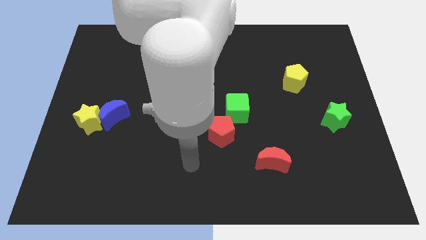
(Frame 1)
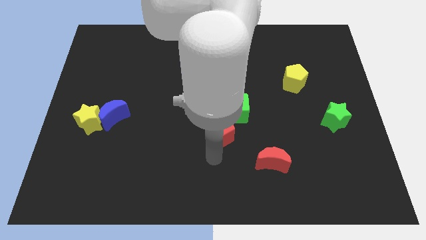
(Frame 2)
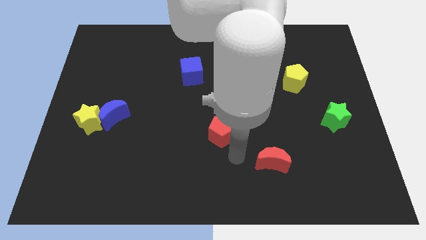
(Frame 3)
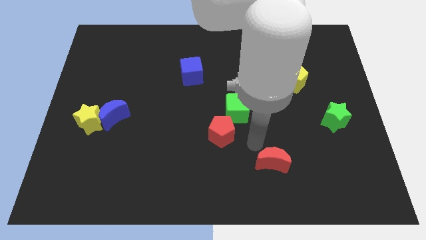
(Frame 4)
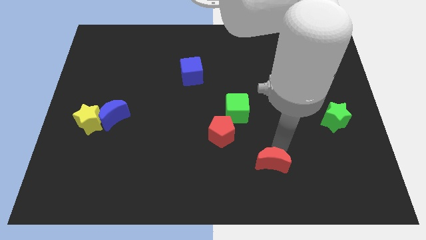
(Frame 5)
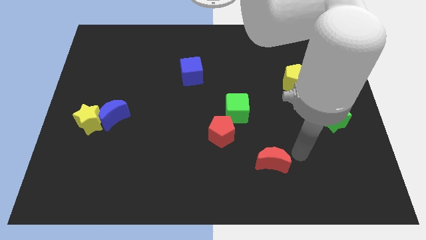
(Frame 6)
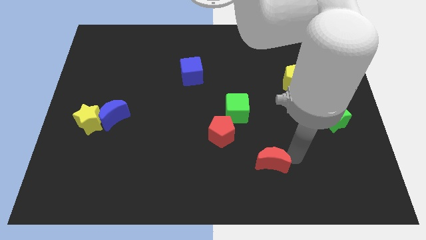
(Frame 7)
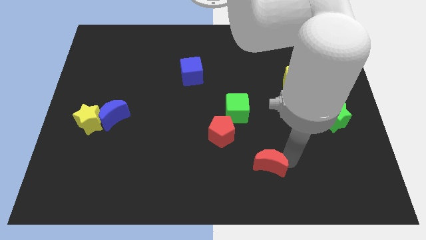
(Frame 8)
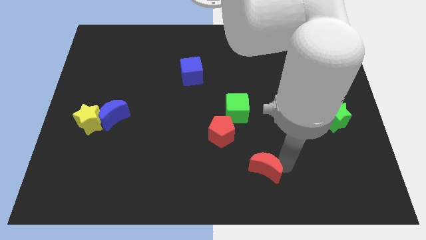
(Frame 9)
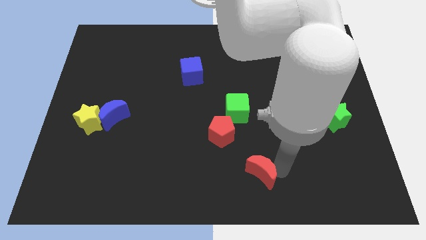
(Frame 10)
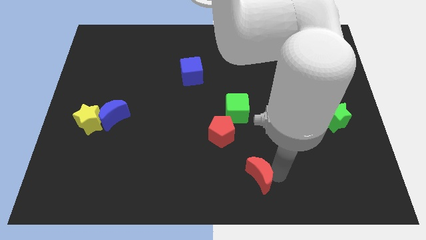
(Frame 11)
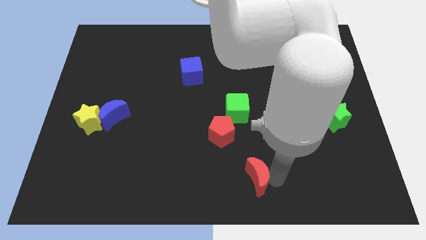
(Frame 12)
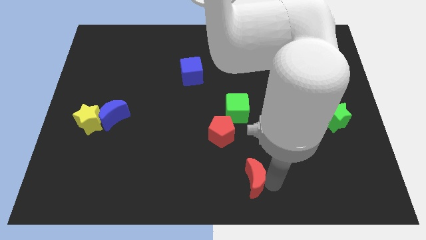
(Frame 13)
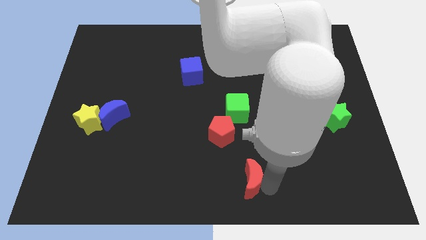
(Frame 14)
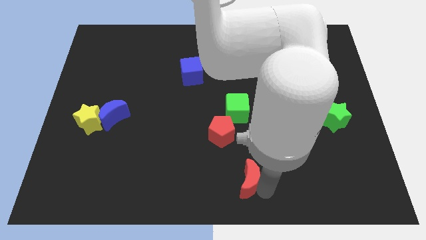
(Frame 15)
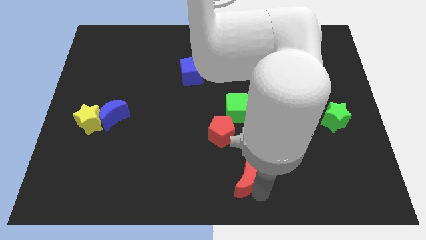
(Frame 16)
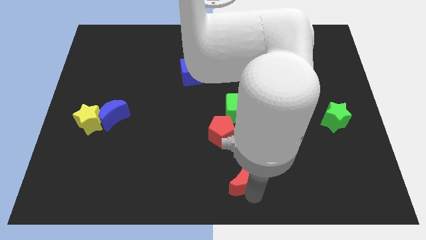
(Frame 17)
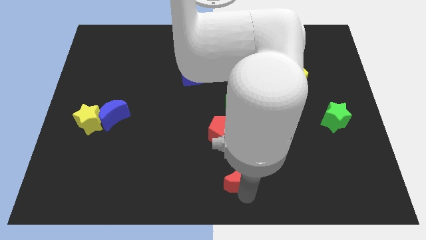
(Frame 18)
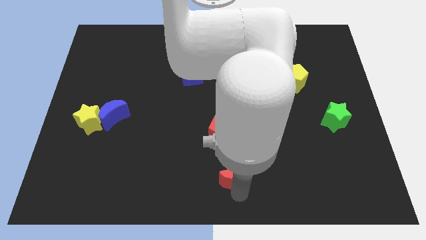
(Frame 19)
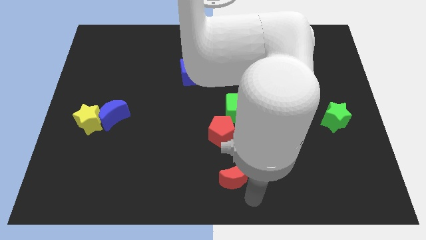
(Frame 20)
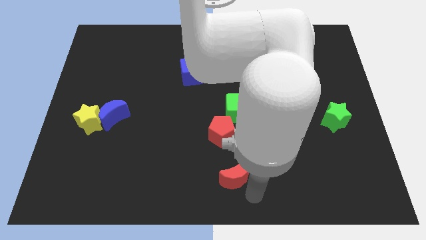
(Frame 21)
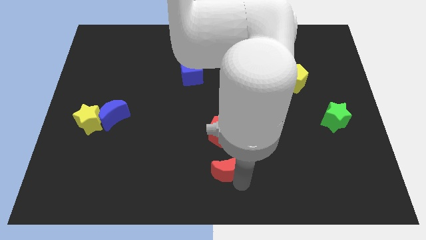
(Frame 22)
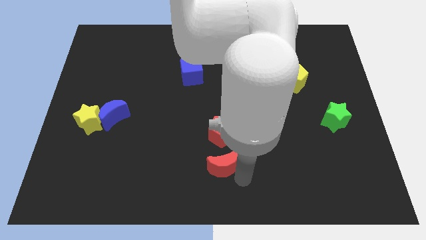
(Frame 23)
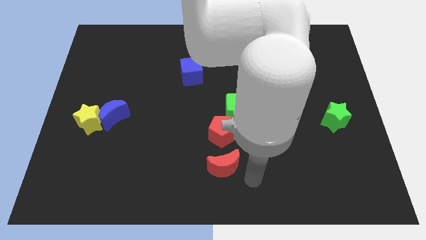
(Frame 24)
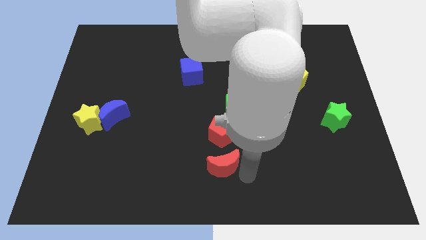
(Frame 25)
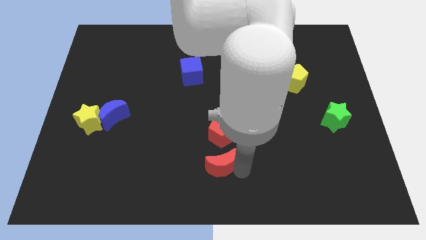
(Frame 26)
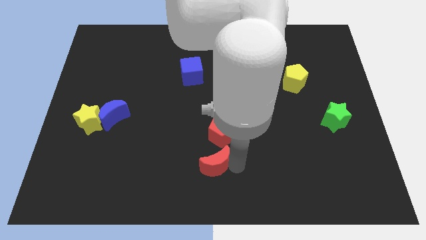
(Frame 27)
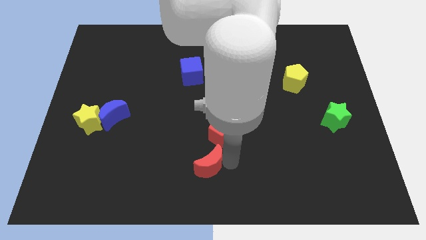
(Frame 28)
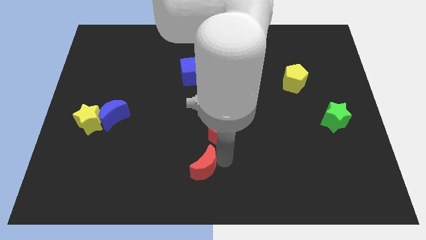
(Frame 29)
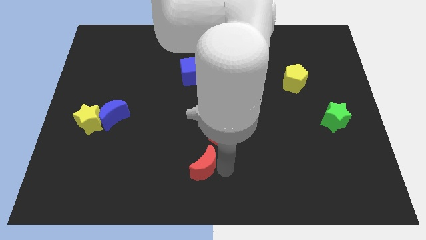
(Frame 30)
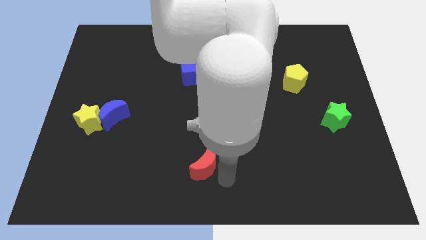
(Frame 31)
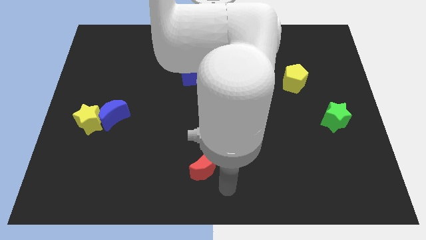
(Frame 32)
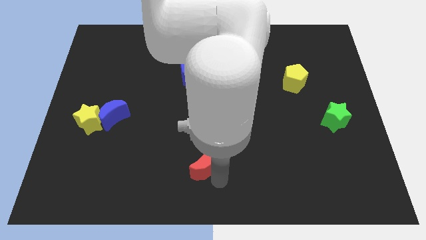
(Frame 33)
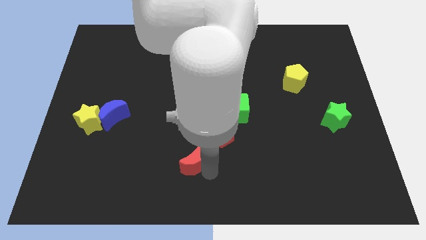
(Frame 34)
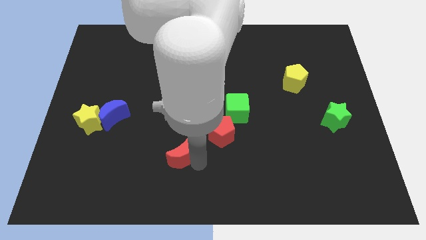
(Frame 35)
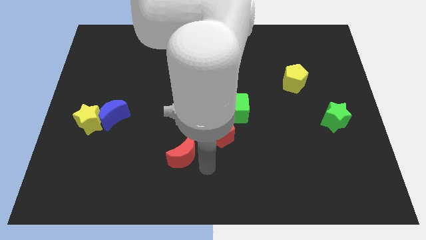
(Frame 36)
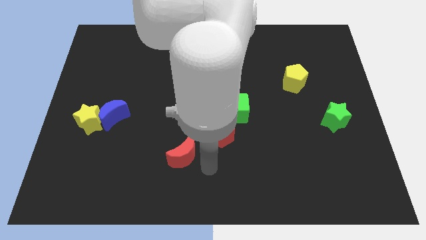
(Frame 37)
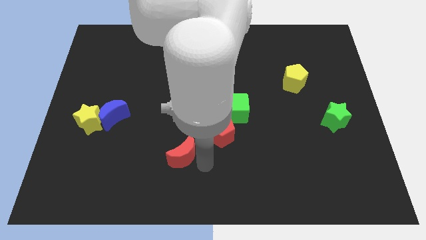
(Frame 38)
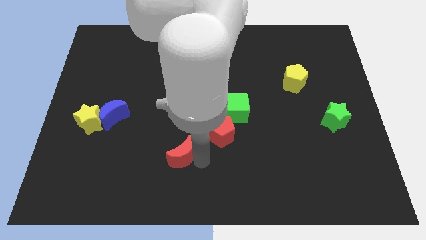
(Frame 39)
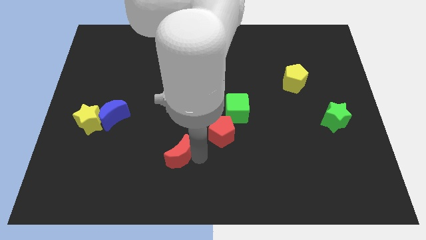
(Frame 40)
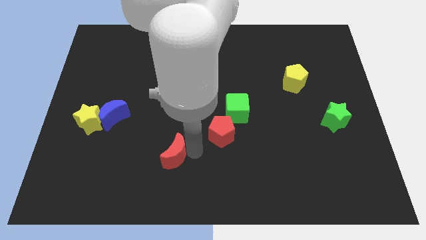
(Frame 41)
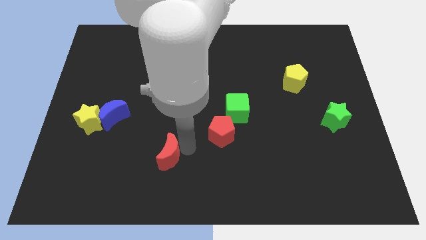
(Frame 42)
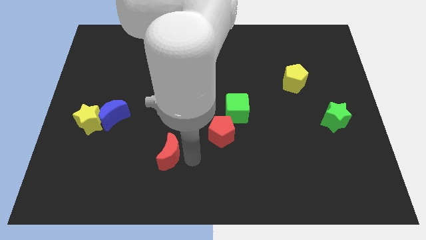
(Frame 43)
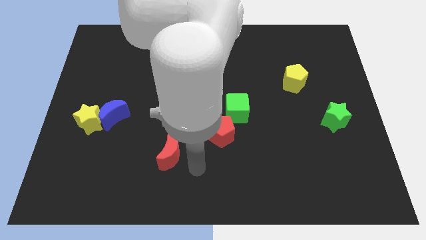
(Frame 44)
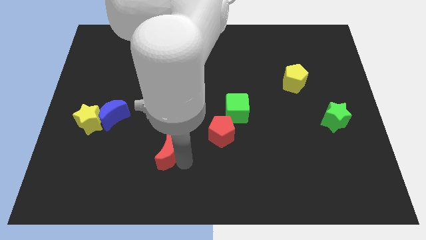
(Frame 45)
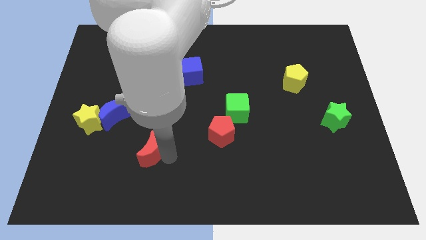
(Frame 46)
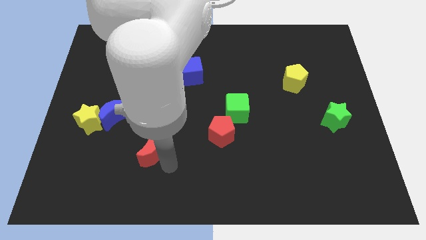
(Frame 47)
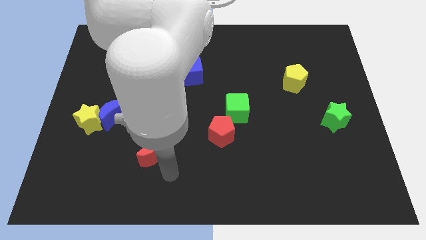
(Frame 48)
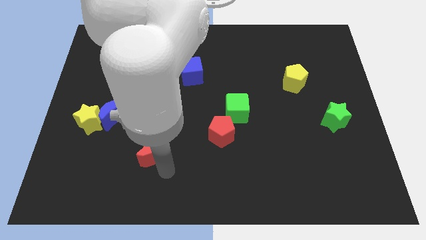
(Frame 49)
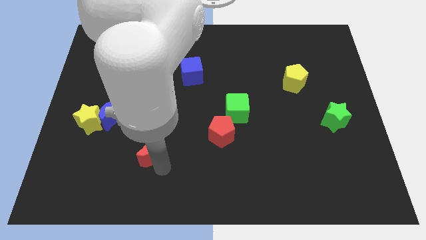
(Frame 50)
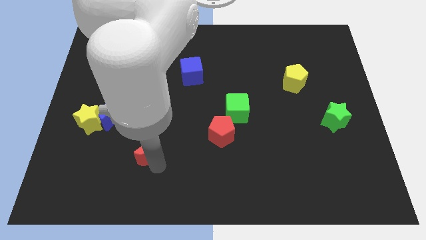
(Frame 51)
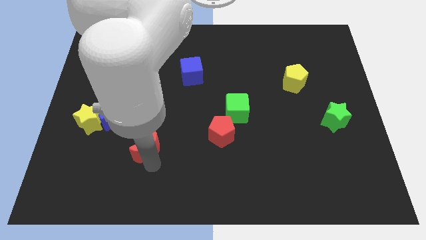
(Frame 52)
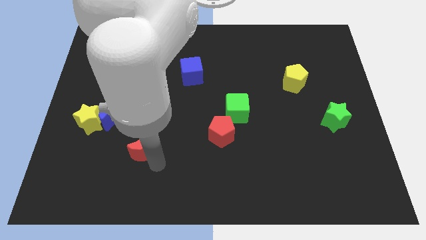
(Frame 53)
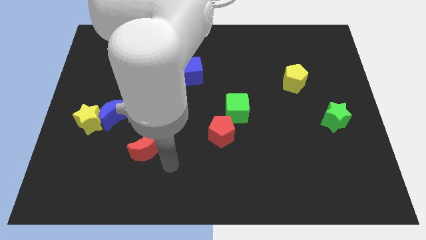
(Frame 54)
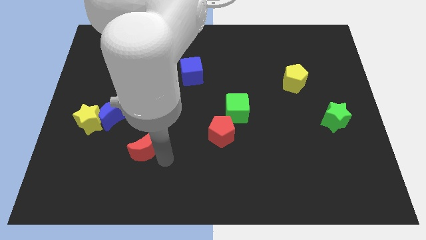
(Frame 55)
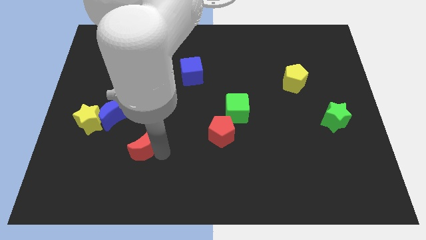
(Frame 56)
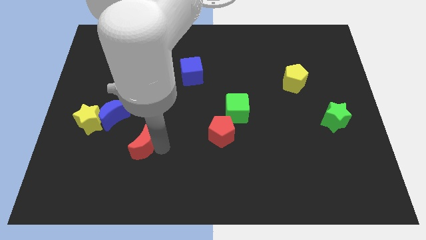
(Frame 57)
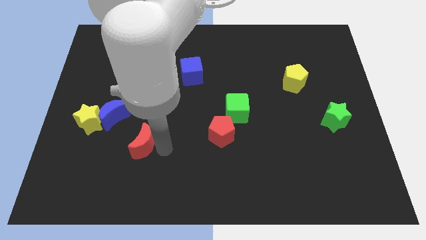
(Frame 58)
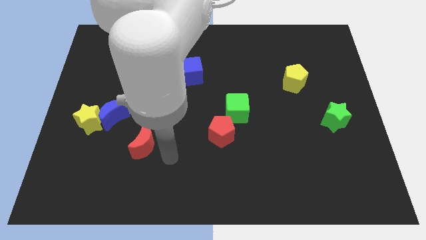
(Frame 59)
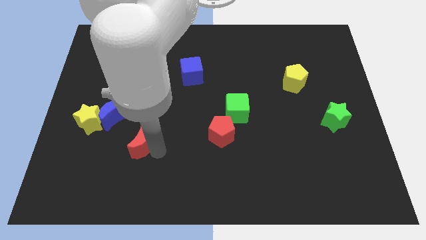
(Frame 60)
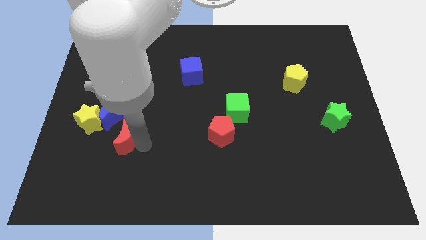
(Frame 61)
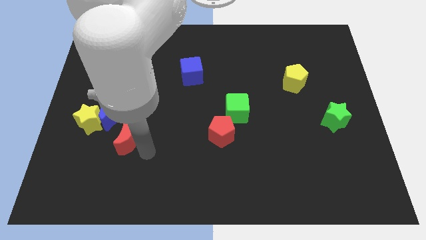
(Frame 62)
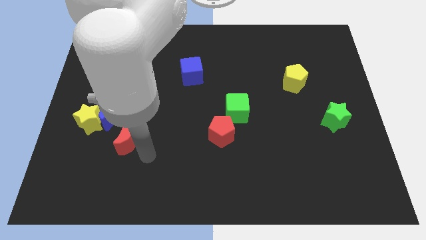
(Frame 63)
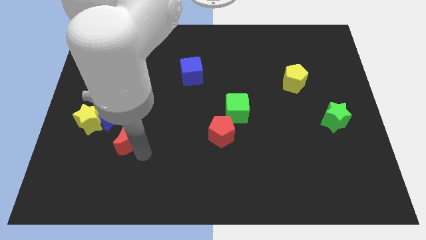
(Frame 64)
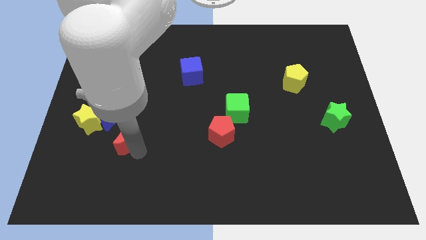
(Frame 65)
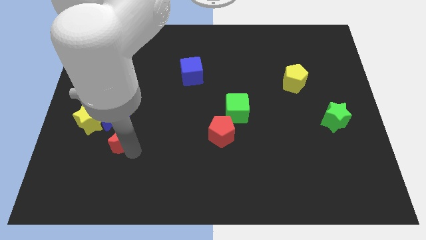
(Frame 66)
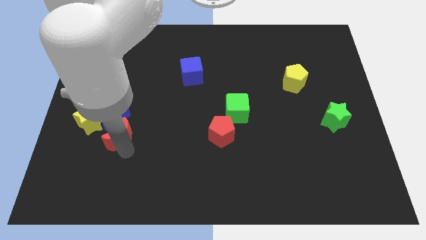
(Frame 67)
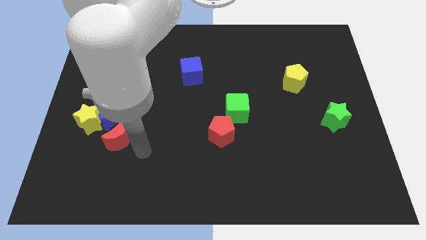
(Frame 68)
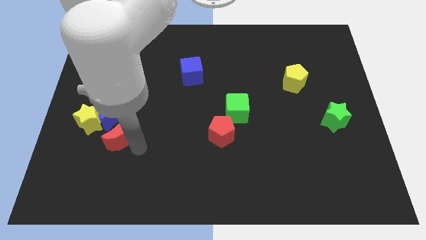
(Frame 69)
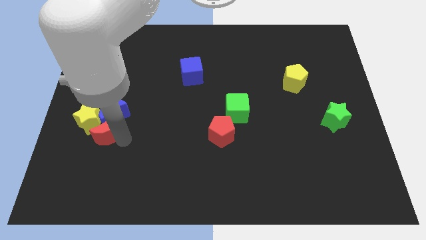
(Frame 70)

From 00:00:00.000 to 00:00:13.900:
slide the red moon close to the yellow star
